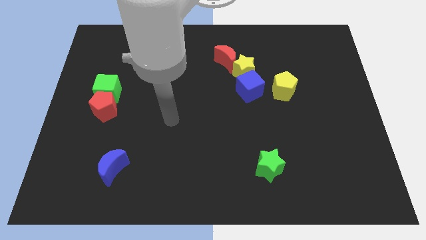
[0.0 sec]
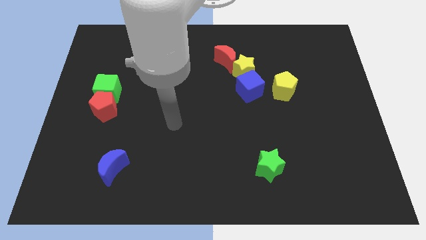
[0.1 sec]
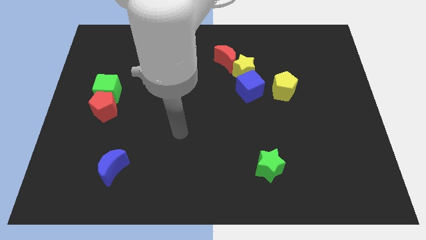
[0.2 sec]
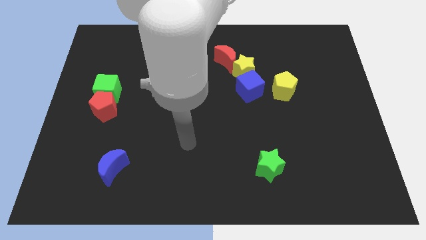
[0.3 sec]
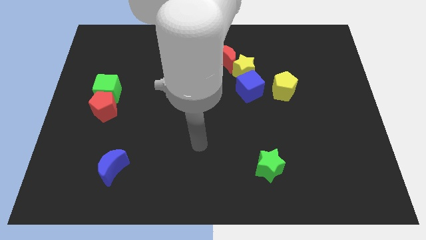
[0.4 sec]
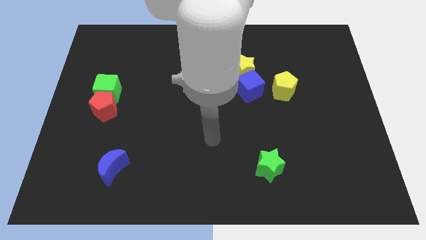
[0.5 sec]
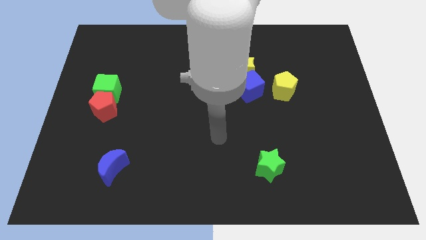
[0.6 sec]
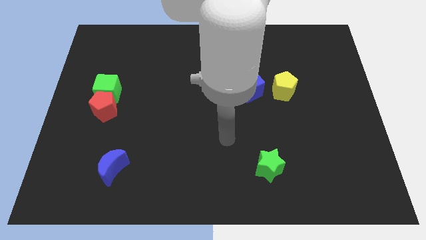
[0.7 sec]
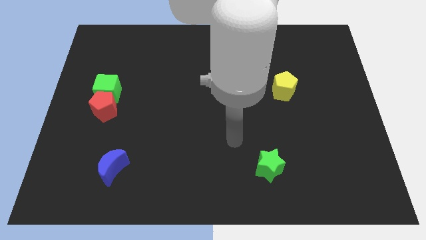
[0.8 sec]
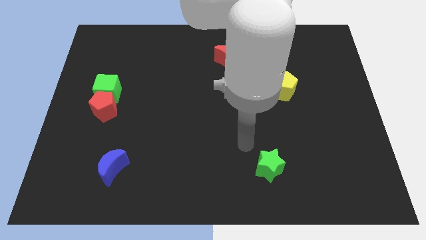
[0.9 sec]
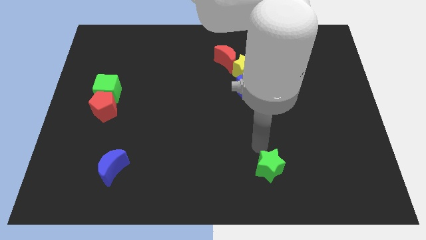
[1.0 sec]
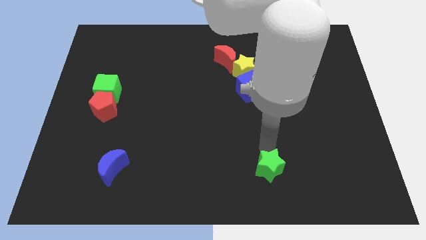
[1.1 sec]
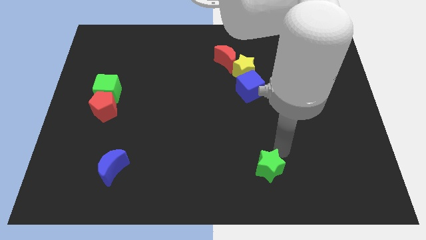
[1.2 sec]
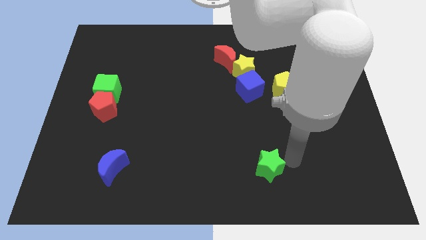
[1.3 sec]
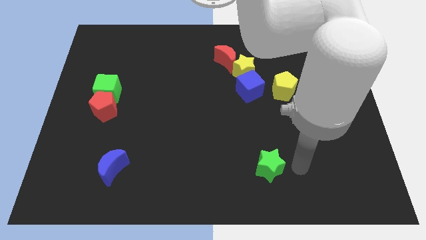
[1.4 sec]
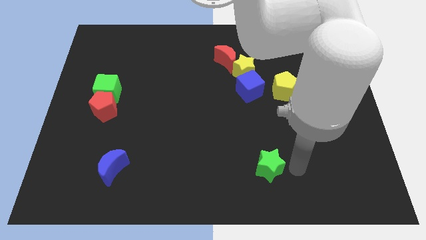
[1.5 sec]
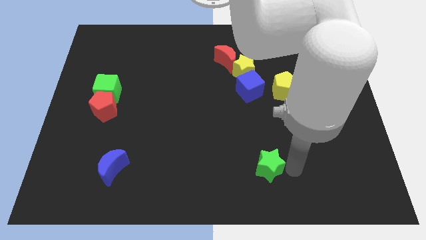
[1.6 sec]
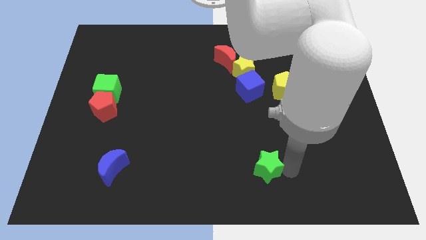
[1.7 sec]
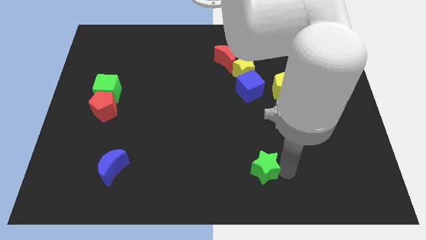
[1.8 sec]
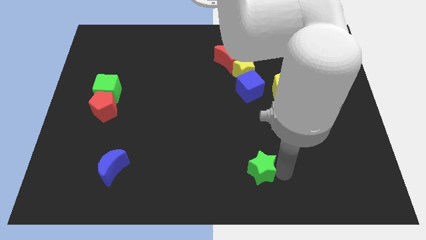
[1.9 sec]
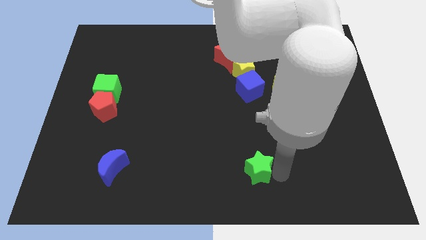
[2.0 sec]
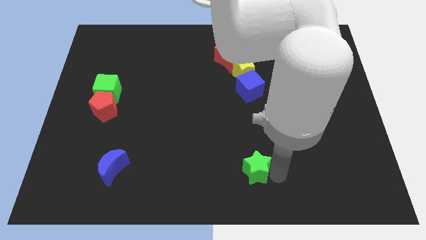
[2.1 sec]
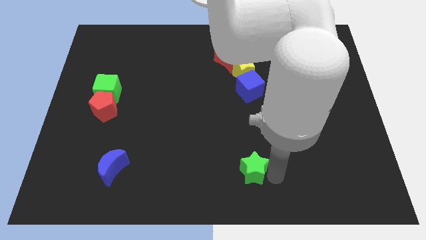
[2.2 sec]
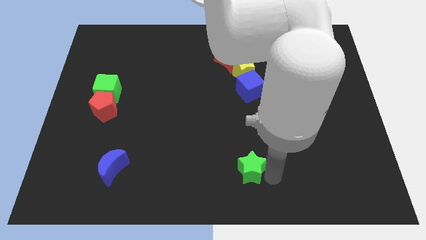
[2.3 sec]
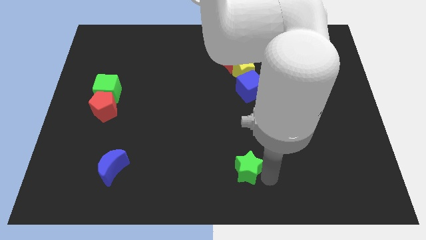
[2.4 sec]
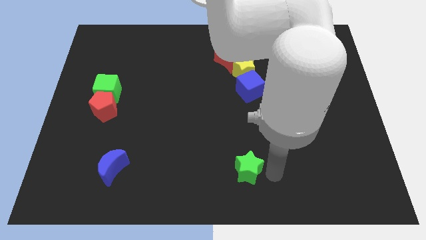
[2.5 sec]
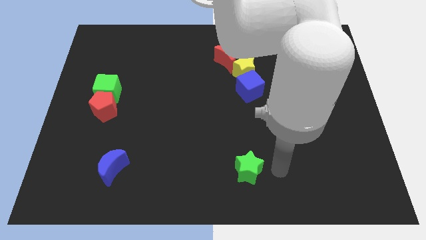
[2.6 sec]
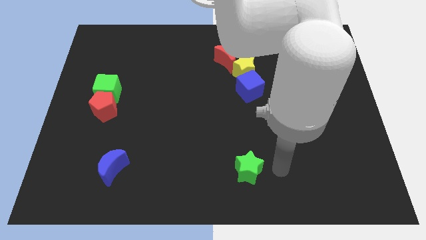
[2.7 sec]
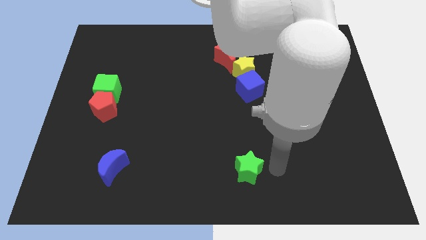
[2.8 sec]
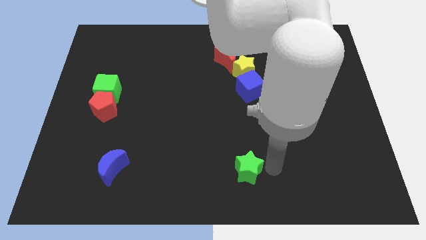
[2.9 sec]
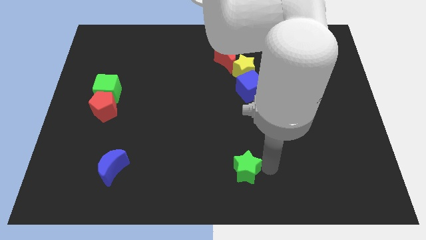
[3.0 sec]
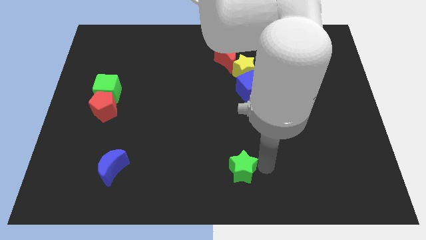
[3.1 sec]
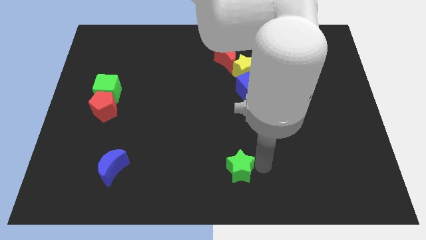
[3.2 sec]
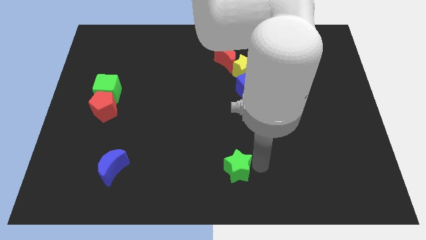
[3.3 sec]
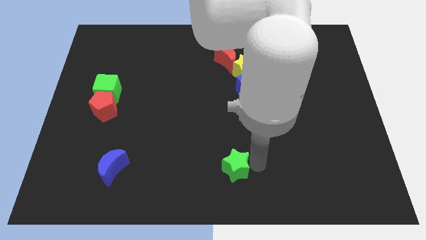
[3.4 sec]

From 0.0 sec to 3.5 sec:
slightly slide the green star left

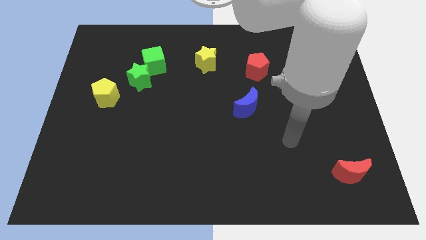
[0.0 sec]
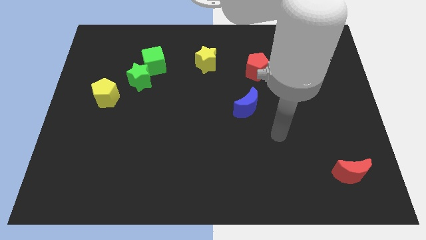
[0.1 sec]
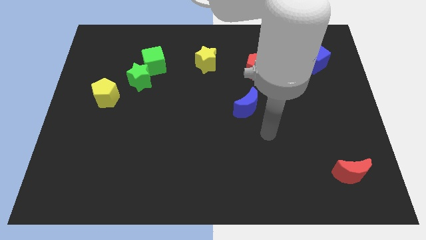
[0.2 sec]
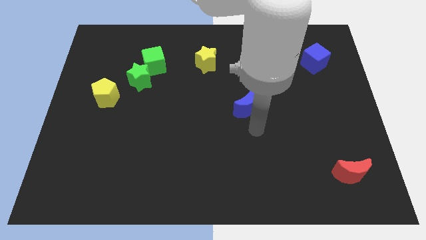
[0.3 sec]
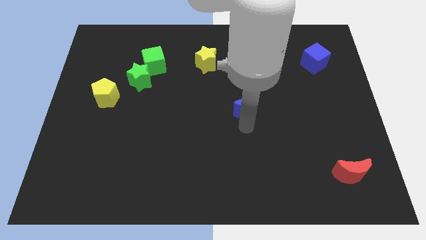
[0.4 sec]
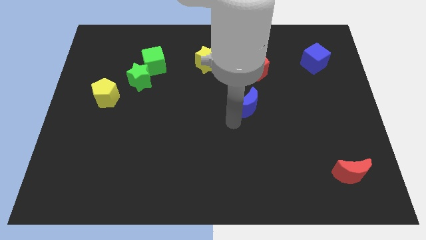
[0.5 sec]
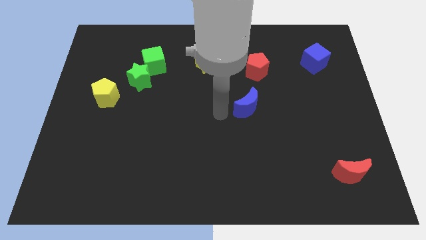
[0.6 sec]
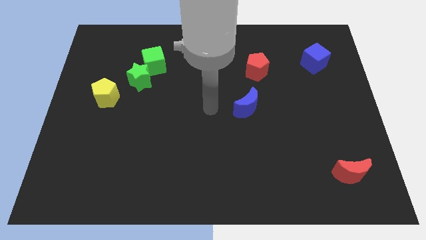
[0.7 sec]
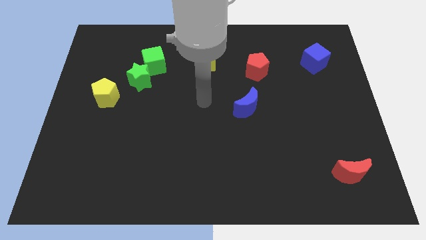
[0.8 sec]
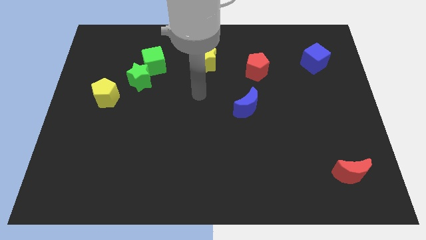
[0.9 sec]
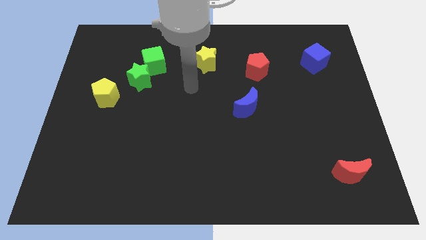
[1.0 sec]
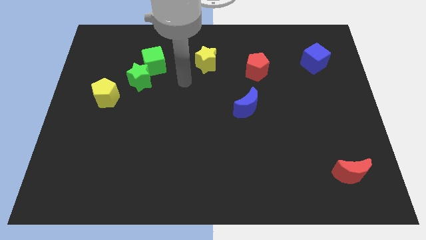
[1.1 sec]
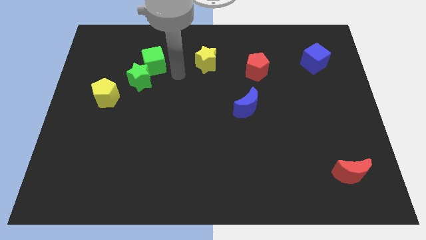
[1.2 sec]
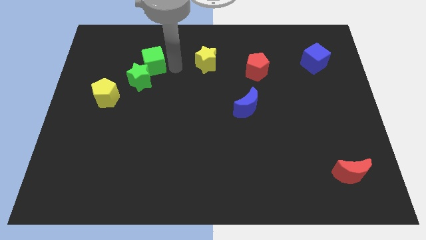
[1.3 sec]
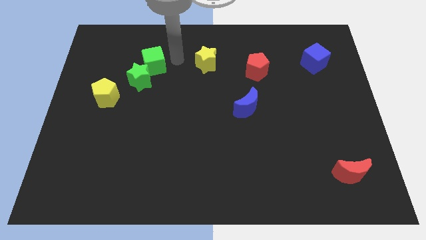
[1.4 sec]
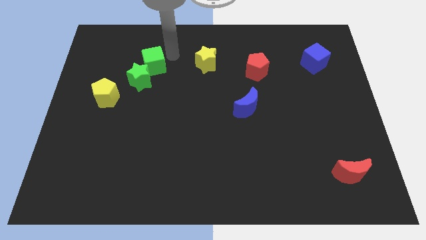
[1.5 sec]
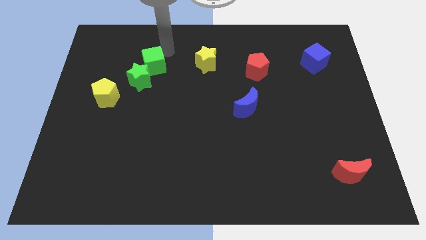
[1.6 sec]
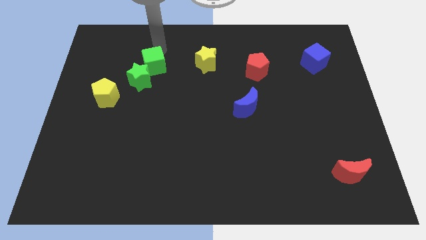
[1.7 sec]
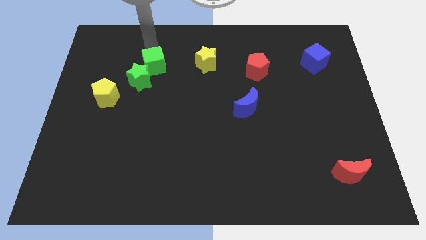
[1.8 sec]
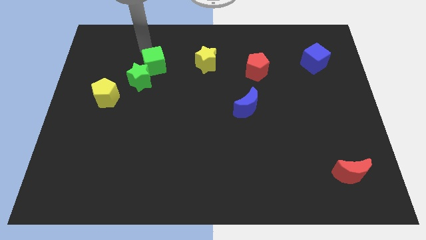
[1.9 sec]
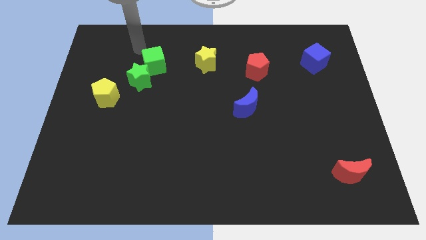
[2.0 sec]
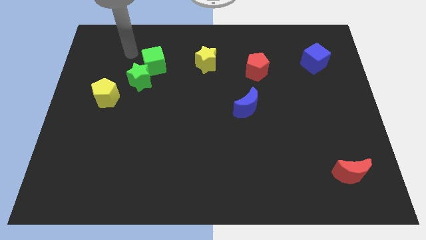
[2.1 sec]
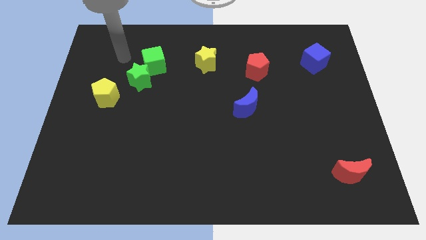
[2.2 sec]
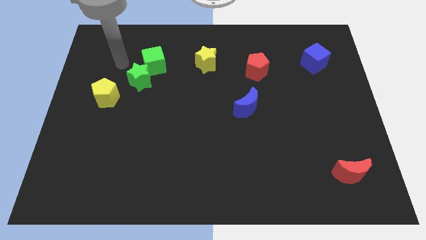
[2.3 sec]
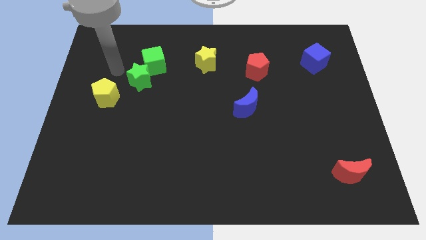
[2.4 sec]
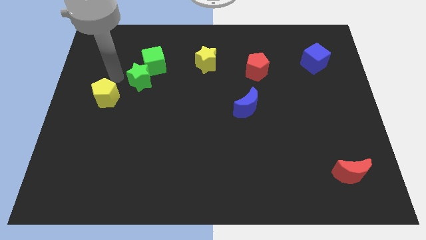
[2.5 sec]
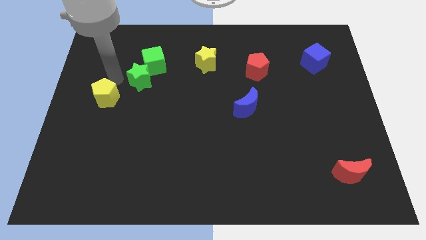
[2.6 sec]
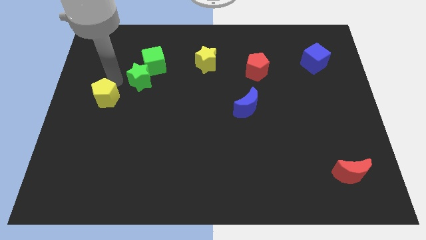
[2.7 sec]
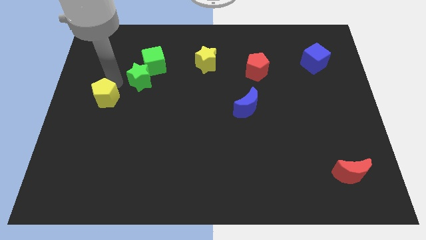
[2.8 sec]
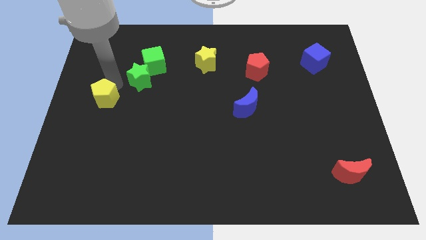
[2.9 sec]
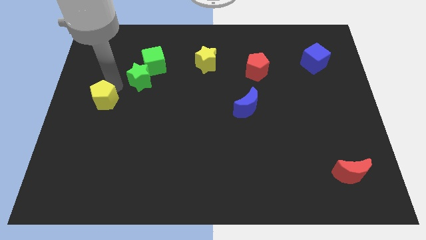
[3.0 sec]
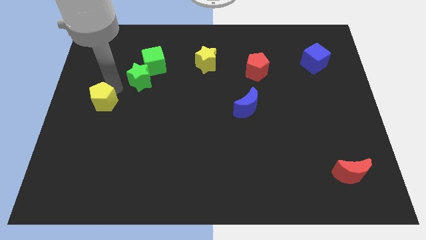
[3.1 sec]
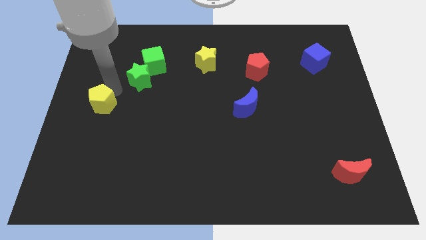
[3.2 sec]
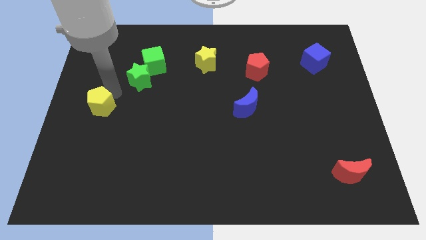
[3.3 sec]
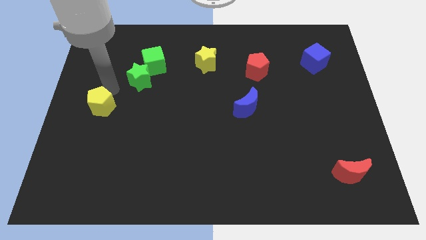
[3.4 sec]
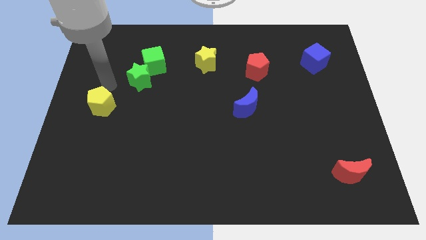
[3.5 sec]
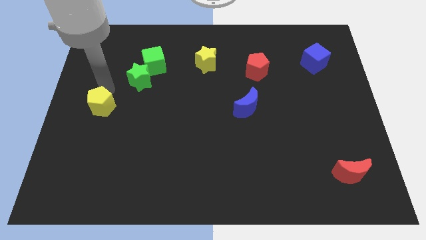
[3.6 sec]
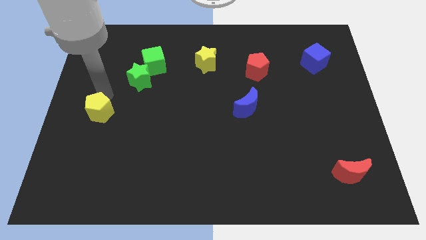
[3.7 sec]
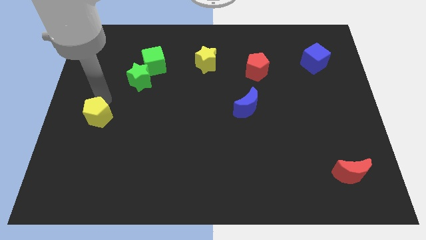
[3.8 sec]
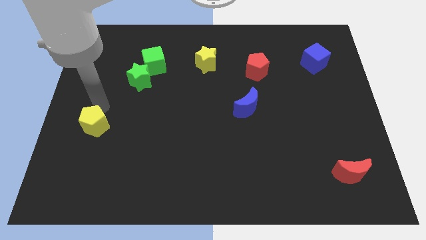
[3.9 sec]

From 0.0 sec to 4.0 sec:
slide the yellow pentagon a little downwards

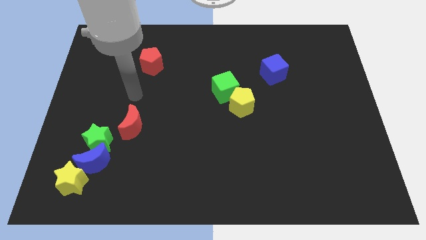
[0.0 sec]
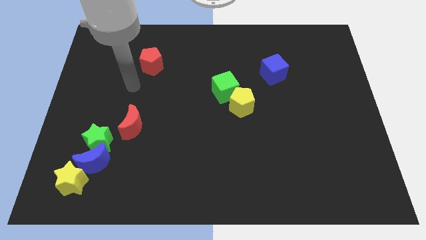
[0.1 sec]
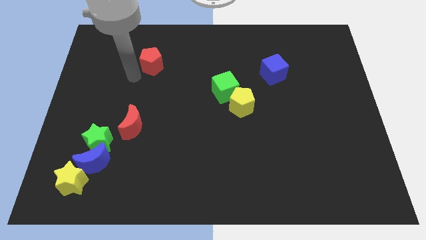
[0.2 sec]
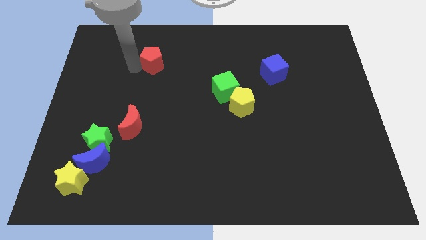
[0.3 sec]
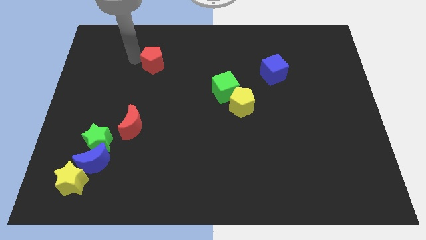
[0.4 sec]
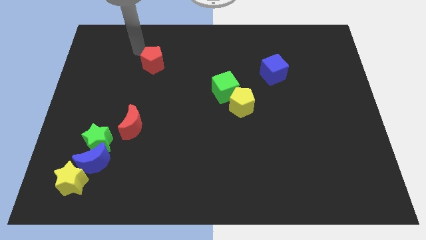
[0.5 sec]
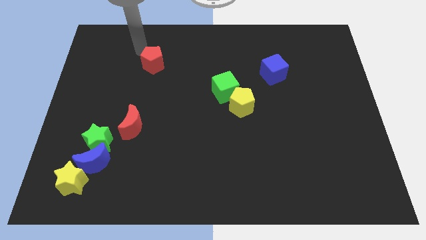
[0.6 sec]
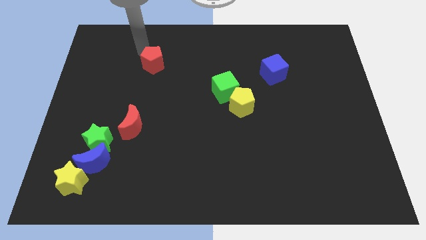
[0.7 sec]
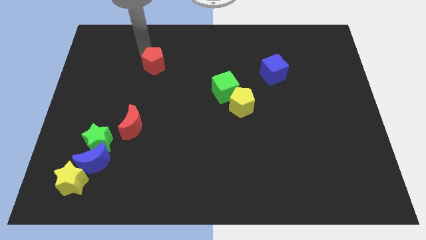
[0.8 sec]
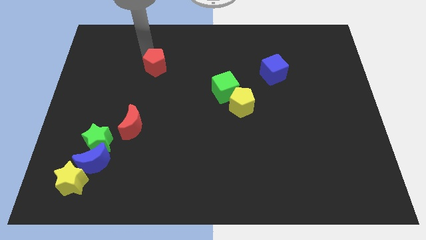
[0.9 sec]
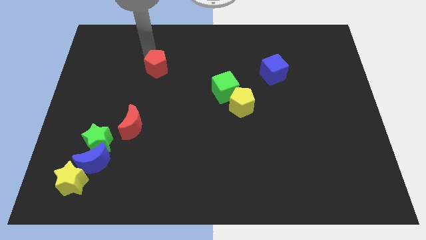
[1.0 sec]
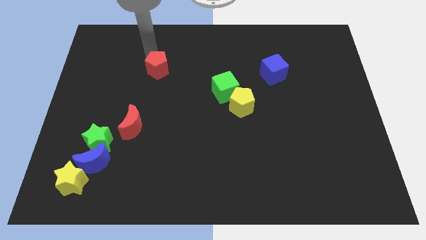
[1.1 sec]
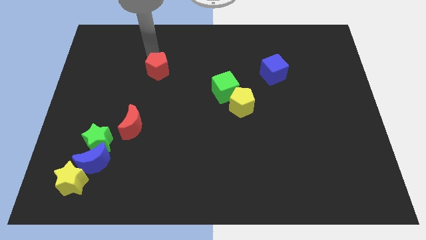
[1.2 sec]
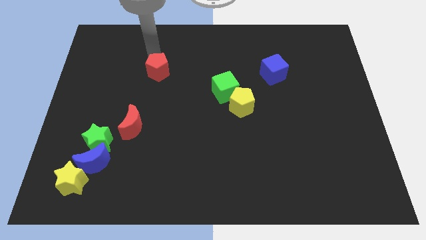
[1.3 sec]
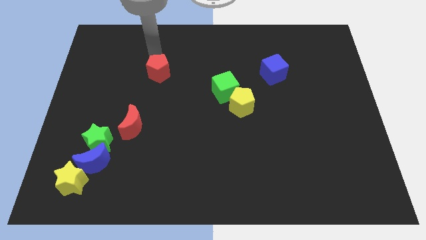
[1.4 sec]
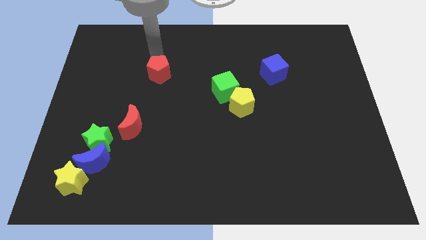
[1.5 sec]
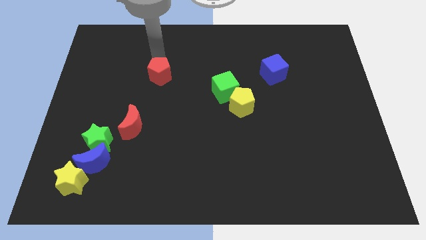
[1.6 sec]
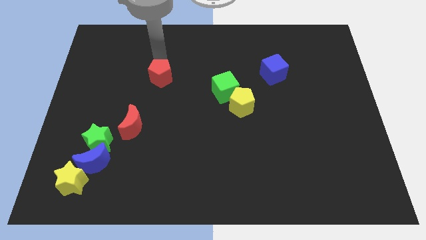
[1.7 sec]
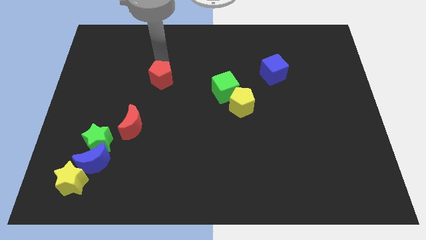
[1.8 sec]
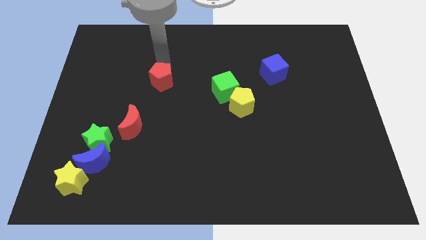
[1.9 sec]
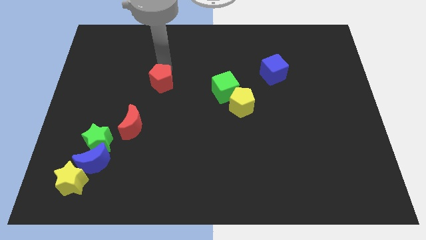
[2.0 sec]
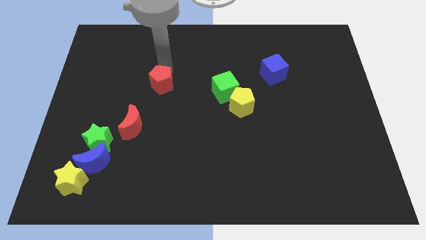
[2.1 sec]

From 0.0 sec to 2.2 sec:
move the red pentagon diagonally down and right a bit
